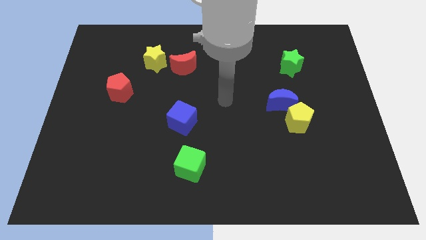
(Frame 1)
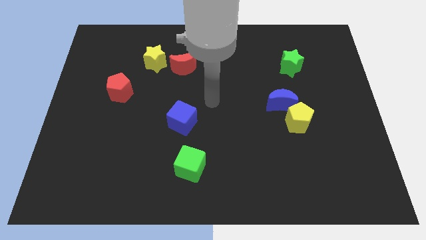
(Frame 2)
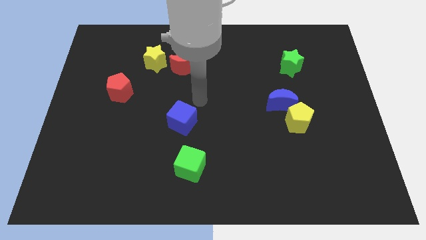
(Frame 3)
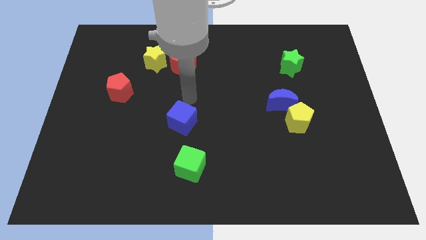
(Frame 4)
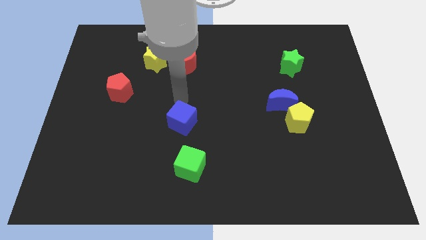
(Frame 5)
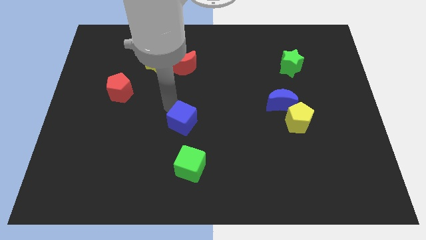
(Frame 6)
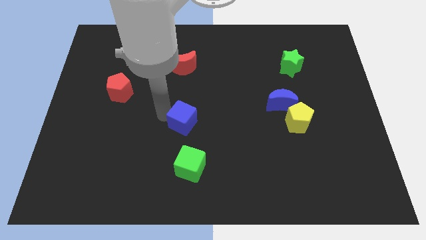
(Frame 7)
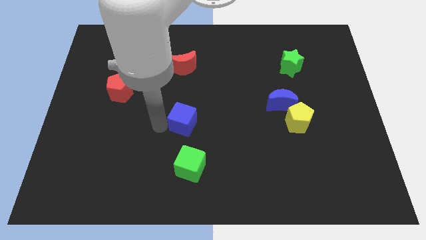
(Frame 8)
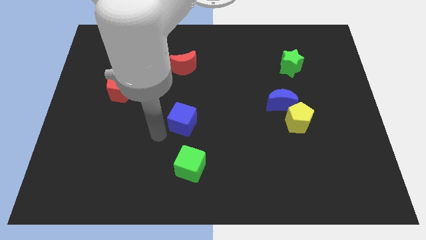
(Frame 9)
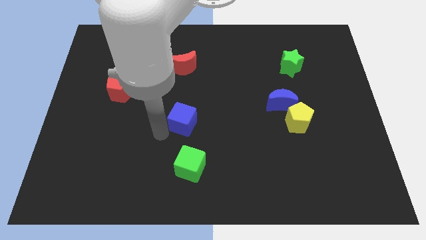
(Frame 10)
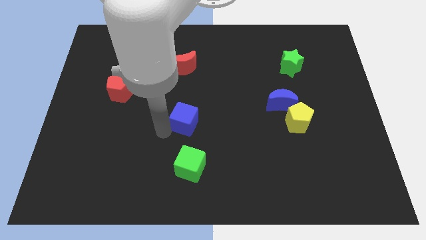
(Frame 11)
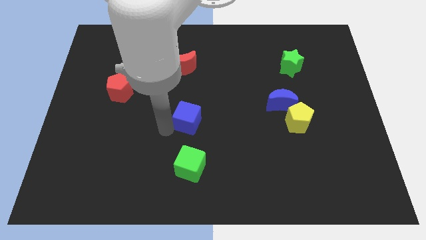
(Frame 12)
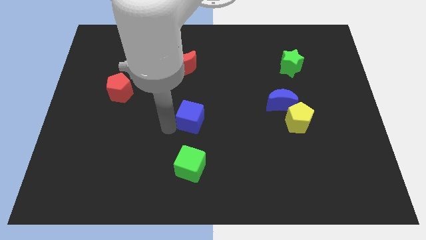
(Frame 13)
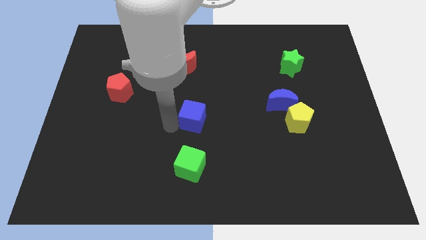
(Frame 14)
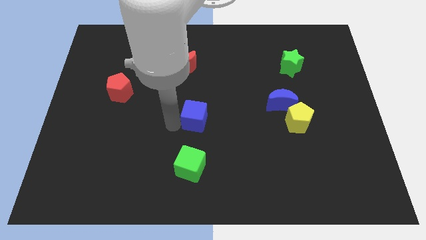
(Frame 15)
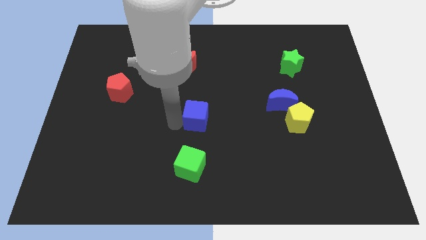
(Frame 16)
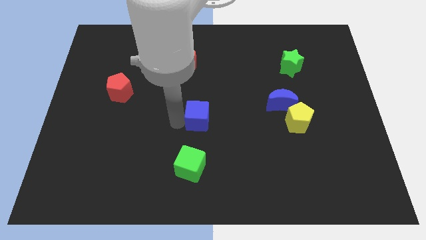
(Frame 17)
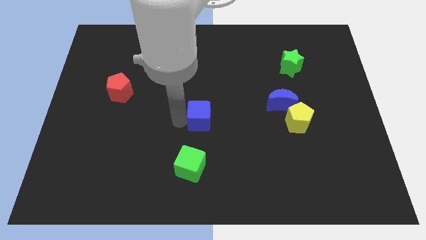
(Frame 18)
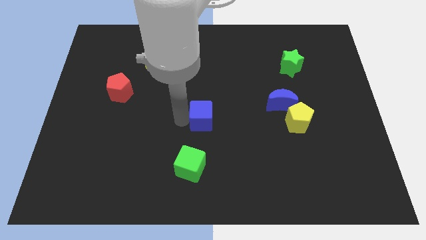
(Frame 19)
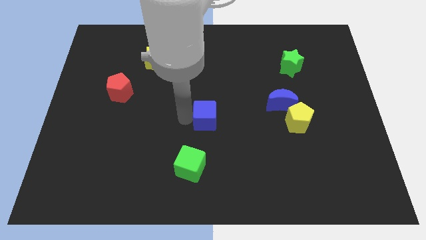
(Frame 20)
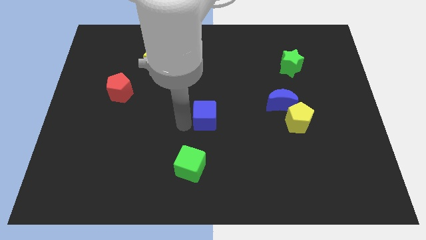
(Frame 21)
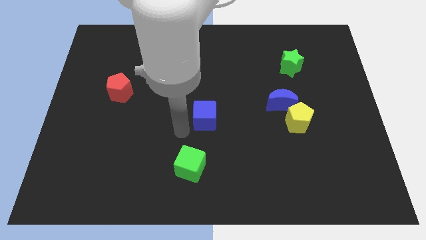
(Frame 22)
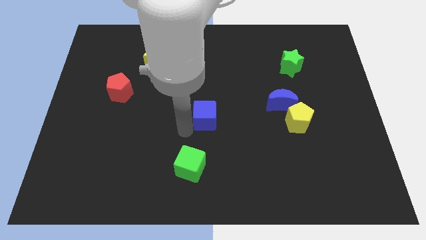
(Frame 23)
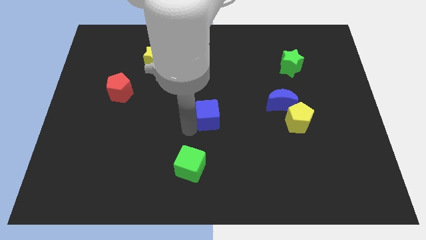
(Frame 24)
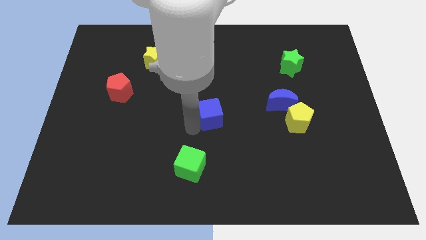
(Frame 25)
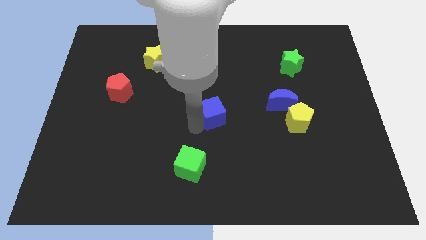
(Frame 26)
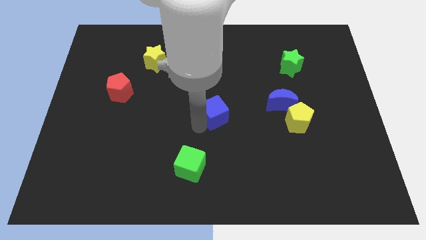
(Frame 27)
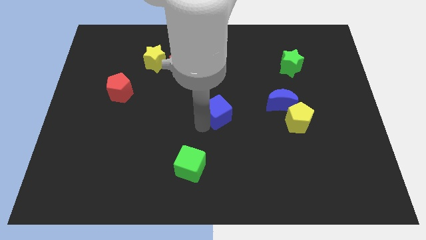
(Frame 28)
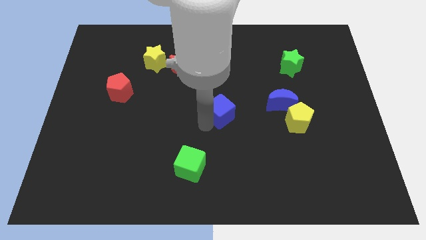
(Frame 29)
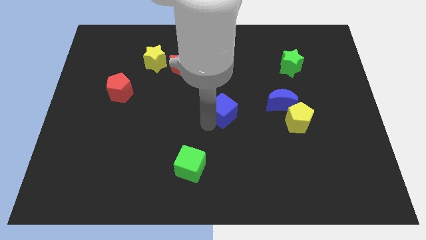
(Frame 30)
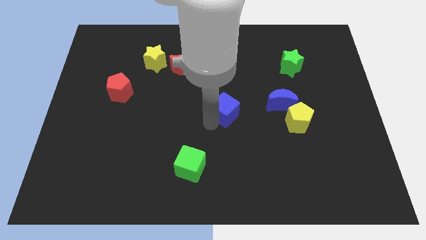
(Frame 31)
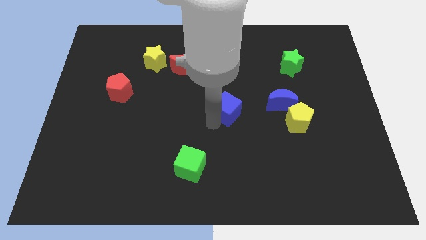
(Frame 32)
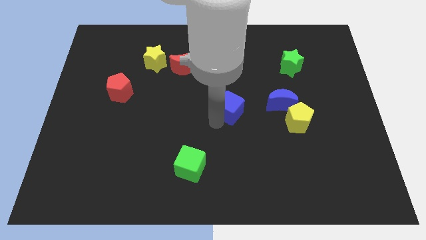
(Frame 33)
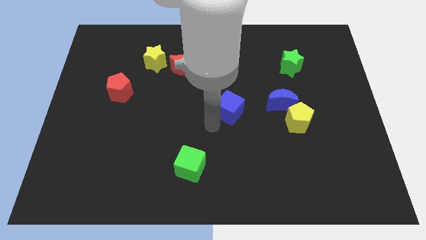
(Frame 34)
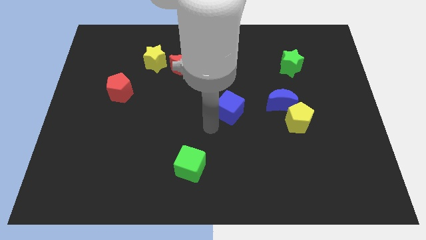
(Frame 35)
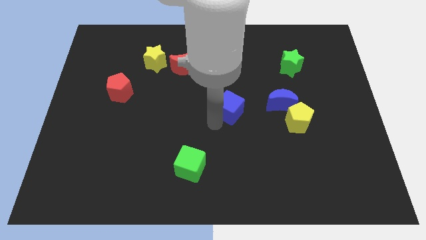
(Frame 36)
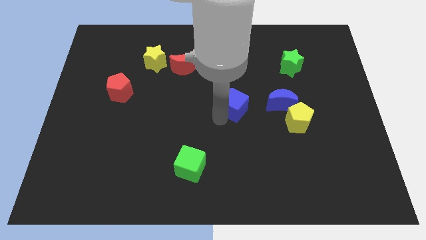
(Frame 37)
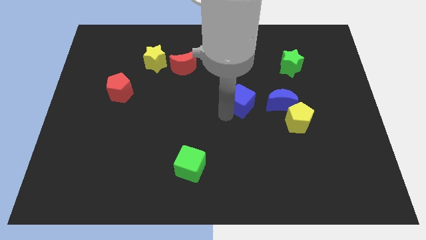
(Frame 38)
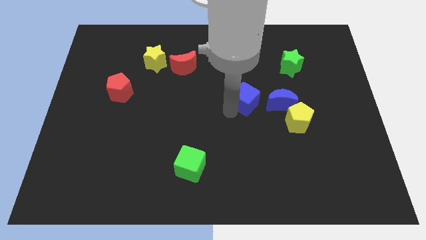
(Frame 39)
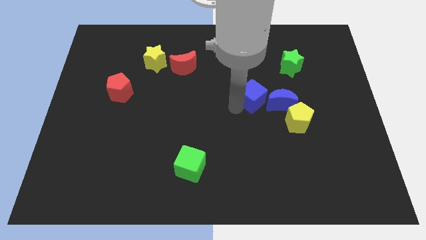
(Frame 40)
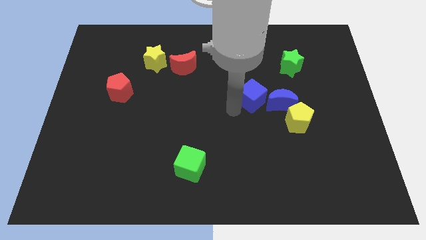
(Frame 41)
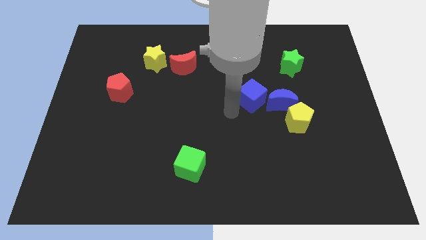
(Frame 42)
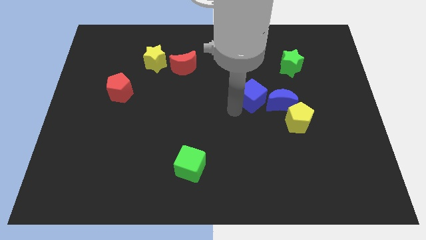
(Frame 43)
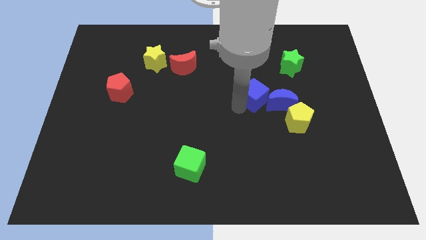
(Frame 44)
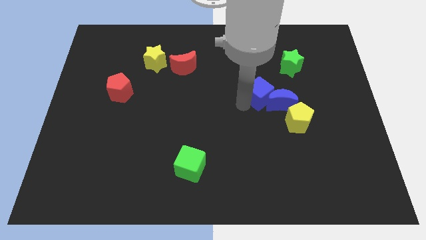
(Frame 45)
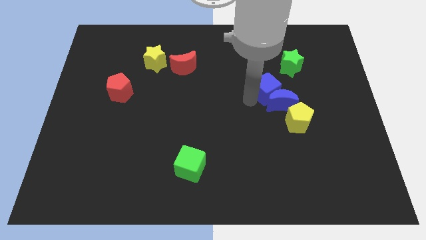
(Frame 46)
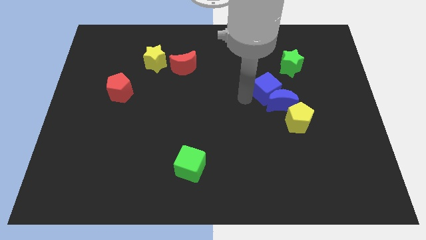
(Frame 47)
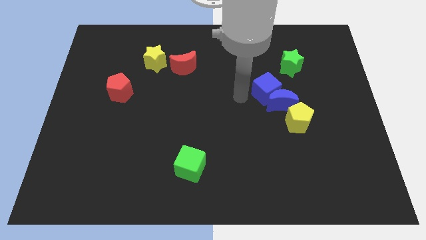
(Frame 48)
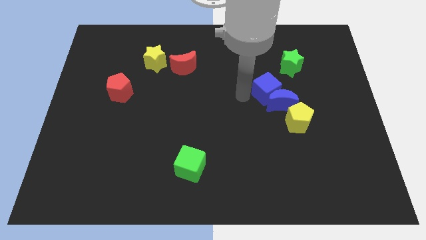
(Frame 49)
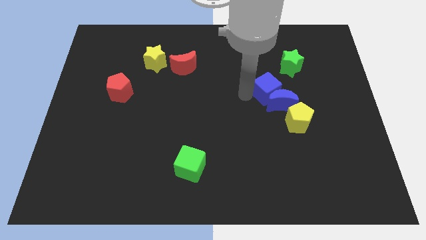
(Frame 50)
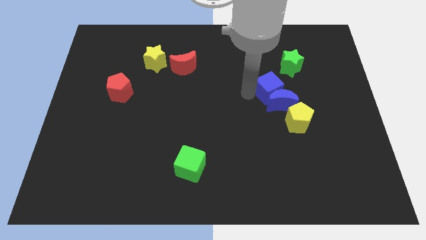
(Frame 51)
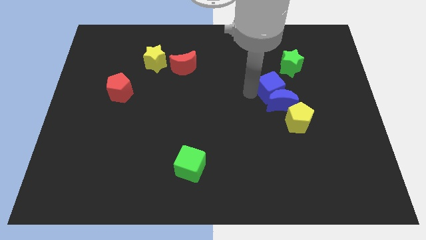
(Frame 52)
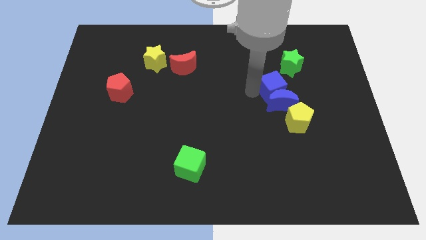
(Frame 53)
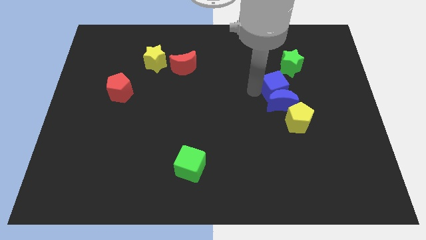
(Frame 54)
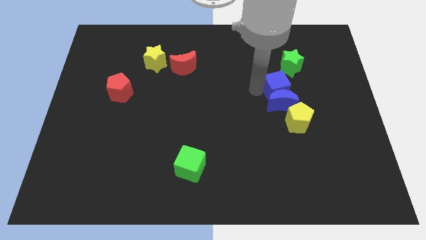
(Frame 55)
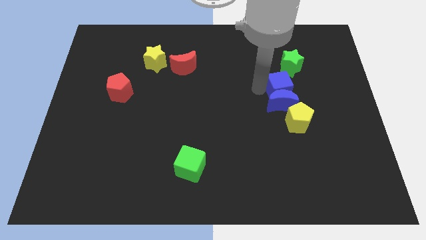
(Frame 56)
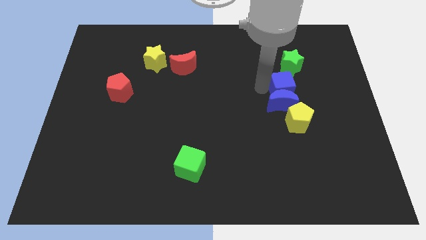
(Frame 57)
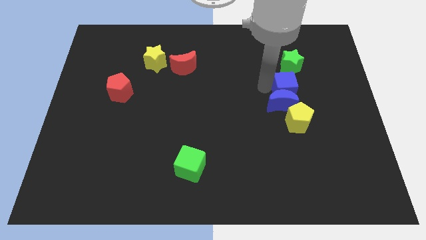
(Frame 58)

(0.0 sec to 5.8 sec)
slide the blue cube right

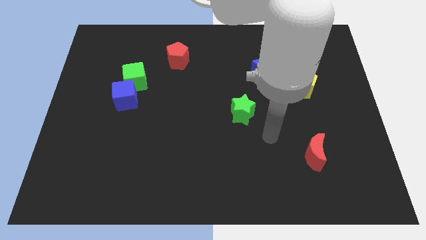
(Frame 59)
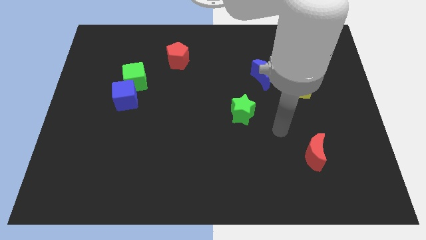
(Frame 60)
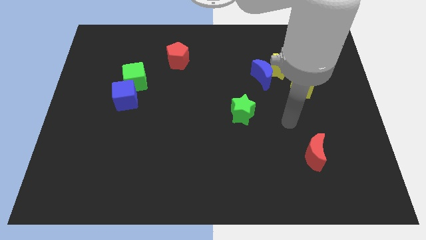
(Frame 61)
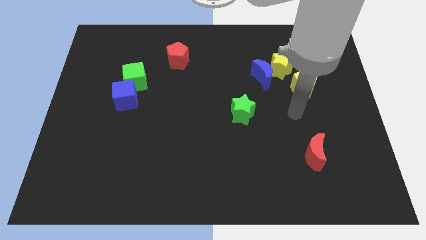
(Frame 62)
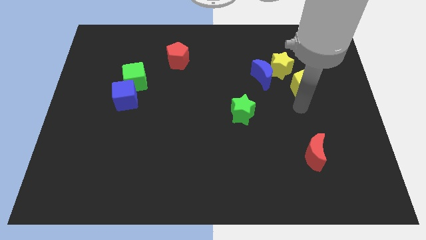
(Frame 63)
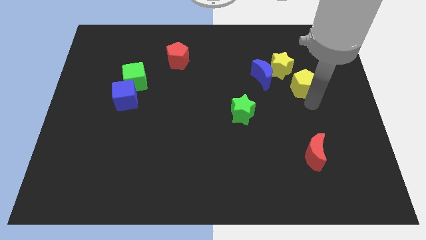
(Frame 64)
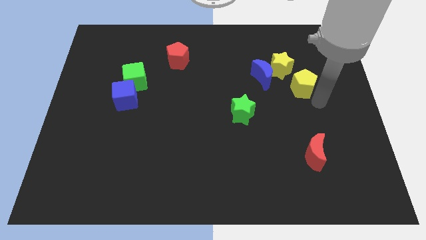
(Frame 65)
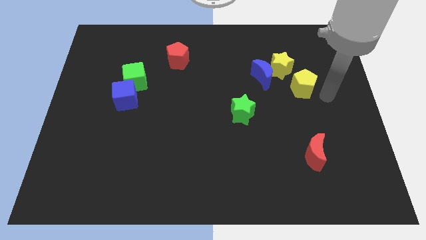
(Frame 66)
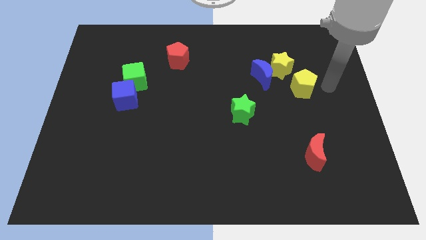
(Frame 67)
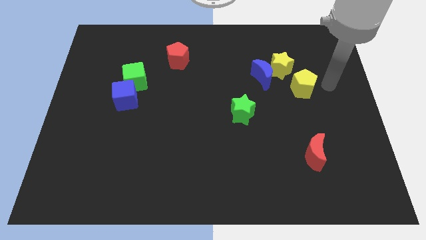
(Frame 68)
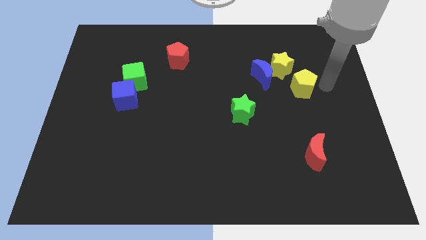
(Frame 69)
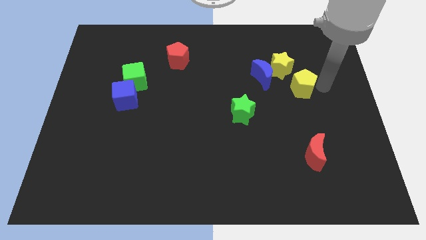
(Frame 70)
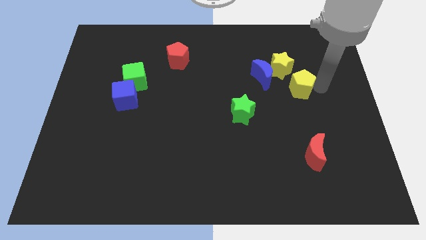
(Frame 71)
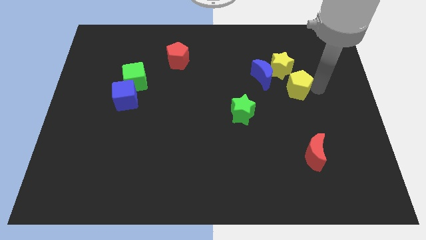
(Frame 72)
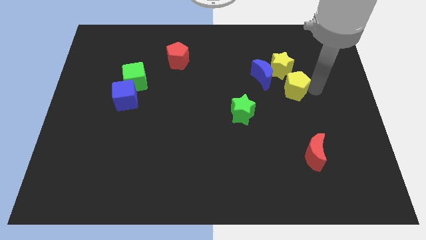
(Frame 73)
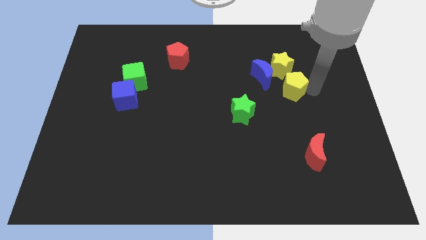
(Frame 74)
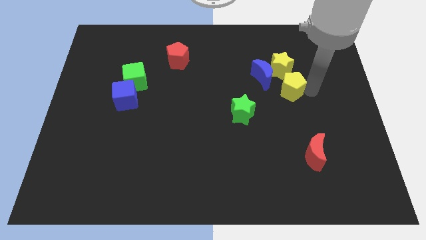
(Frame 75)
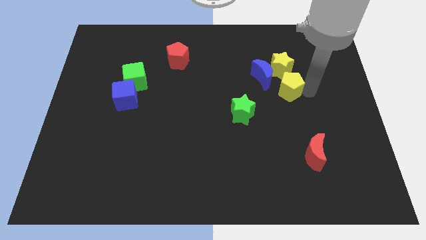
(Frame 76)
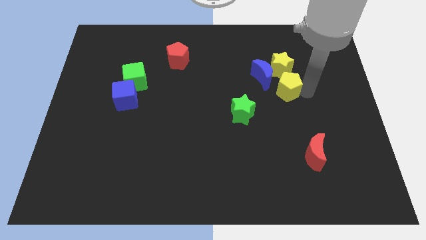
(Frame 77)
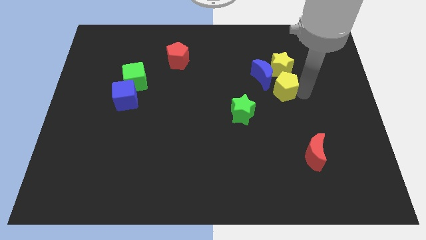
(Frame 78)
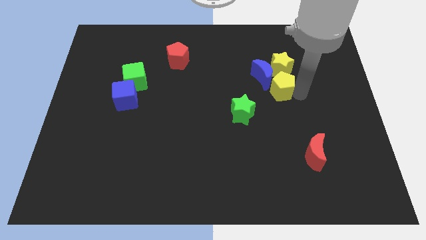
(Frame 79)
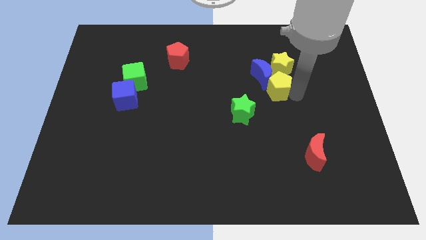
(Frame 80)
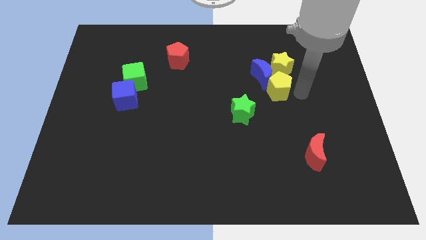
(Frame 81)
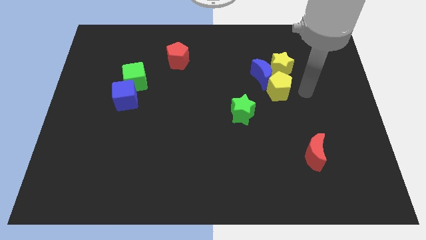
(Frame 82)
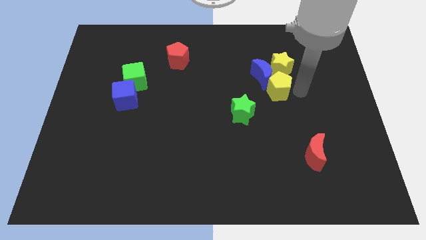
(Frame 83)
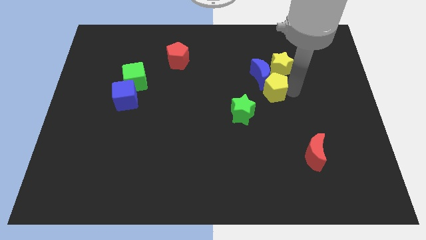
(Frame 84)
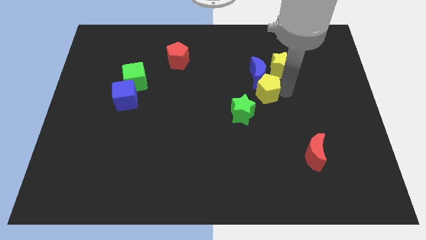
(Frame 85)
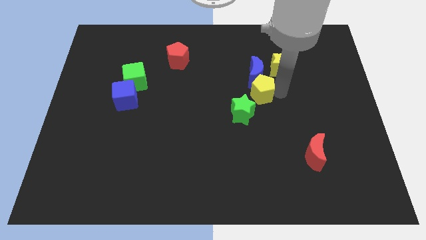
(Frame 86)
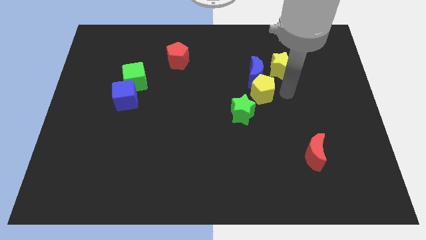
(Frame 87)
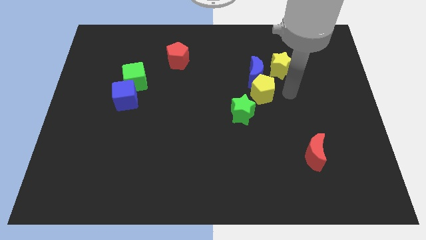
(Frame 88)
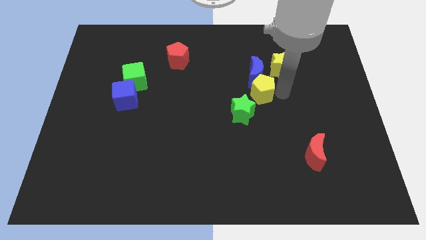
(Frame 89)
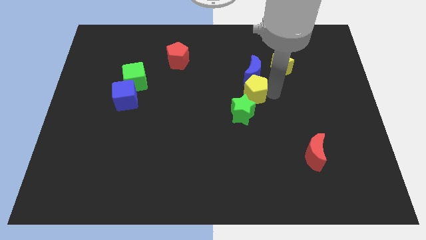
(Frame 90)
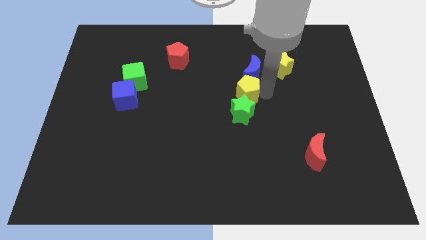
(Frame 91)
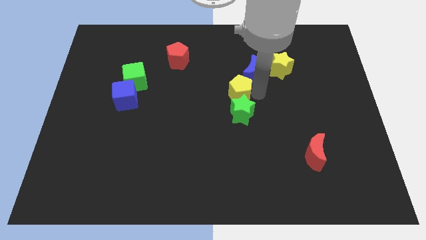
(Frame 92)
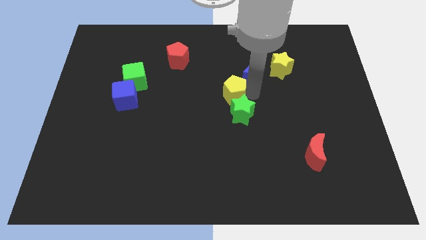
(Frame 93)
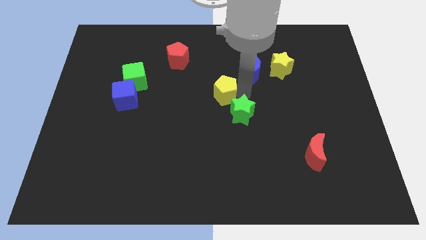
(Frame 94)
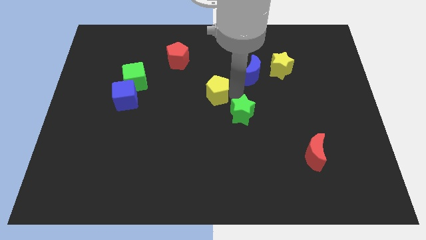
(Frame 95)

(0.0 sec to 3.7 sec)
move the yellow pentagon left
